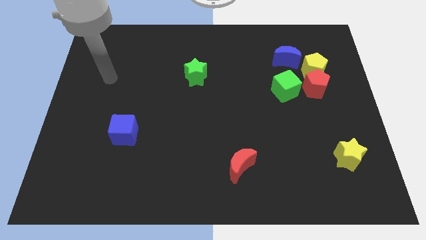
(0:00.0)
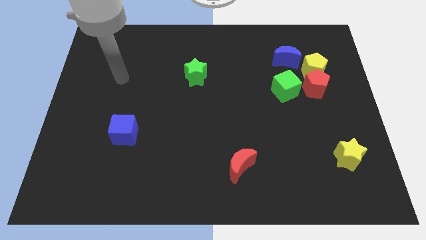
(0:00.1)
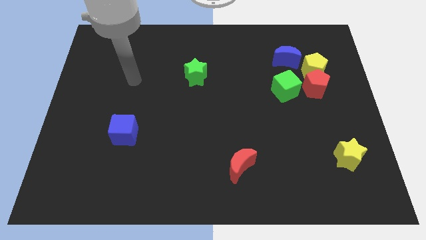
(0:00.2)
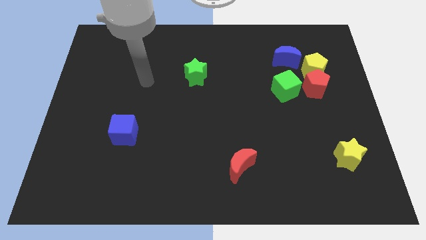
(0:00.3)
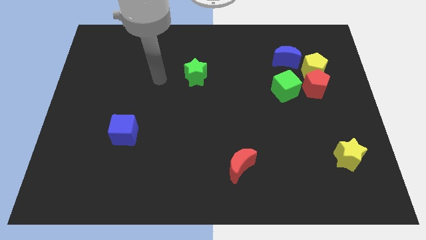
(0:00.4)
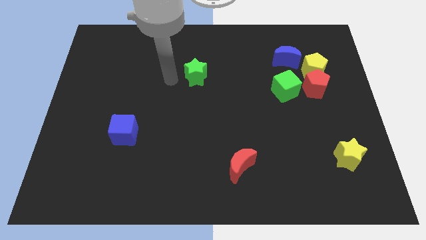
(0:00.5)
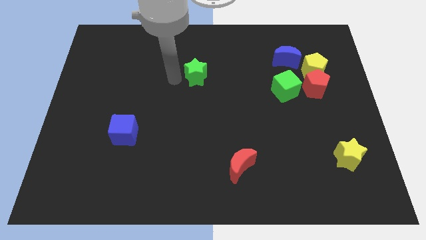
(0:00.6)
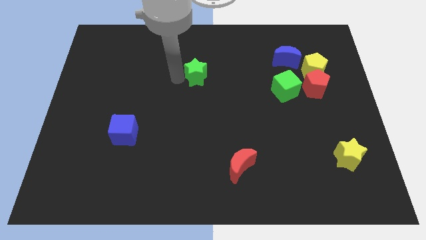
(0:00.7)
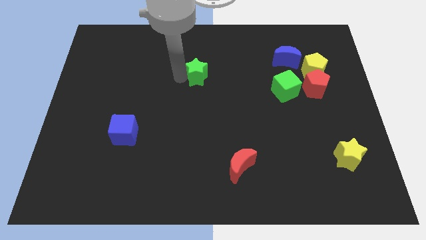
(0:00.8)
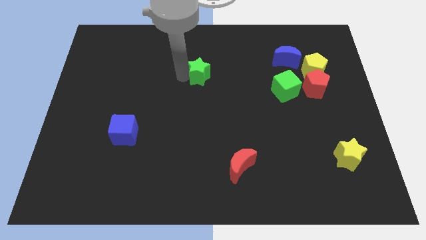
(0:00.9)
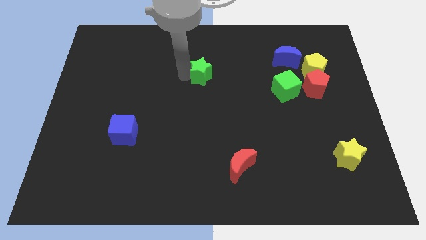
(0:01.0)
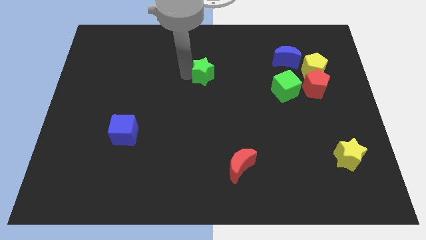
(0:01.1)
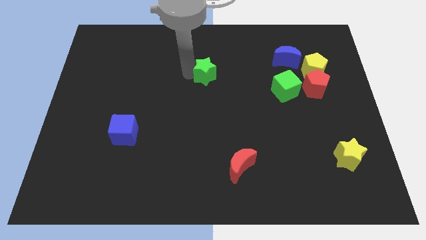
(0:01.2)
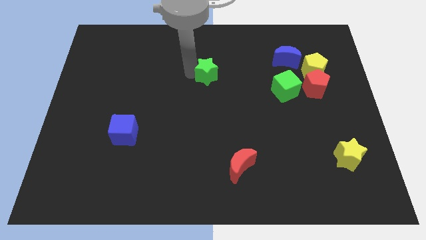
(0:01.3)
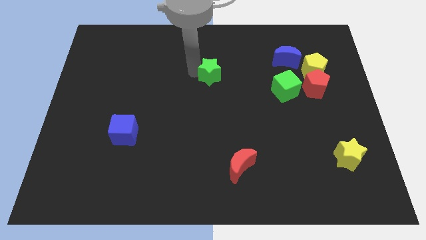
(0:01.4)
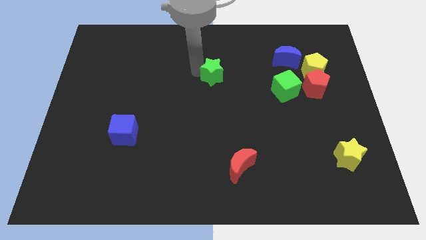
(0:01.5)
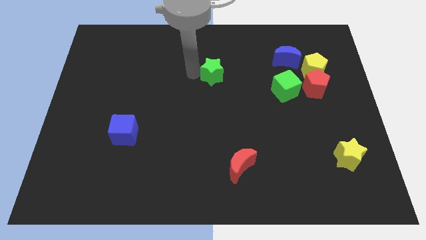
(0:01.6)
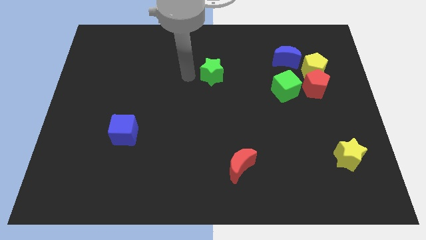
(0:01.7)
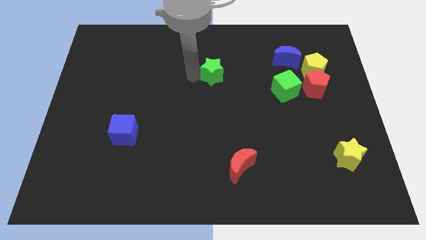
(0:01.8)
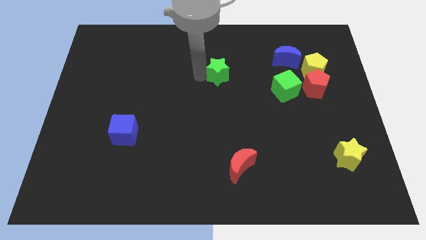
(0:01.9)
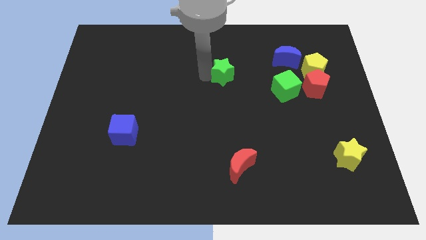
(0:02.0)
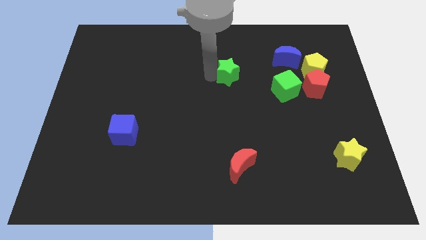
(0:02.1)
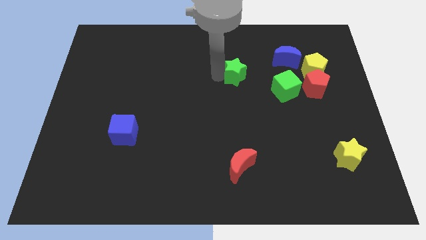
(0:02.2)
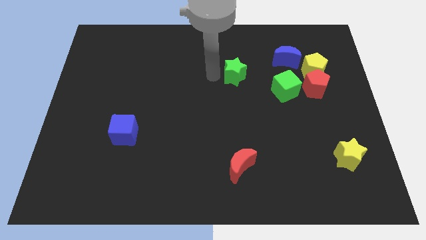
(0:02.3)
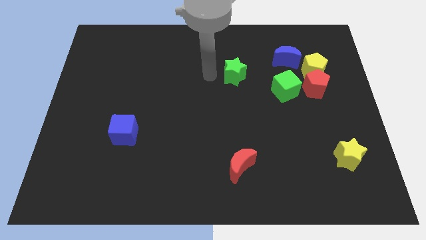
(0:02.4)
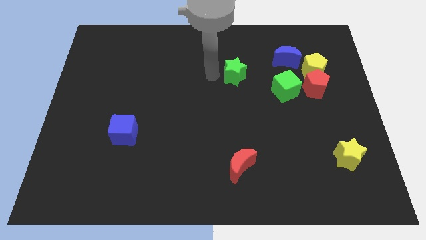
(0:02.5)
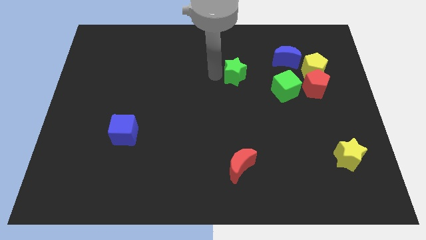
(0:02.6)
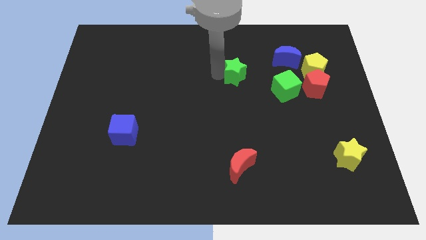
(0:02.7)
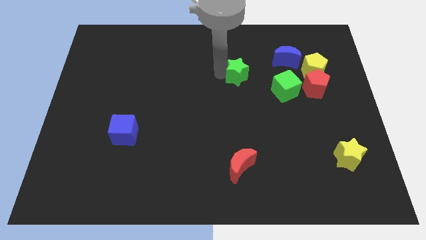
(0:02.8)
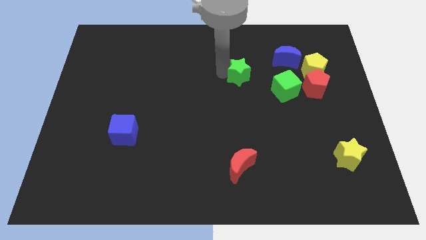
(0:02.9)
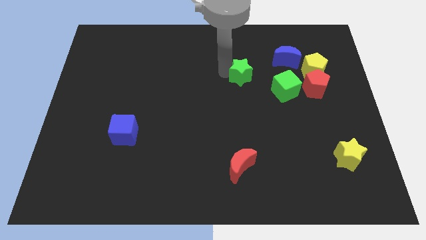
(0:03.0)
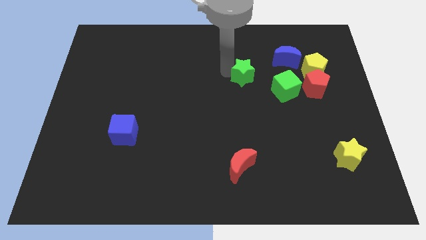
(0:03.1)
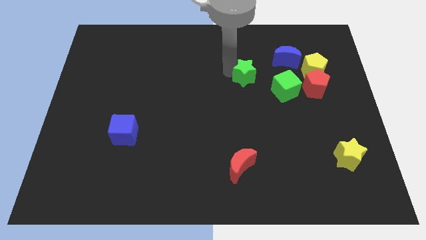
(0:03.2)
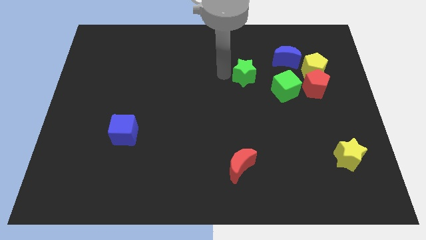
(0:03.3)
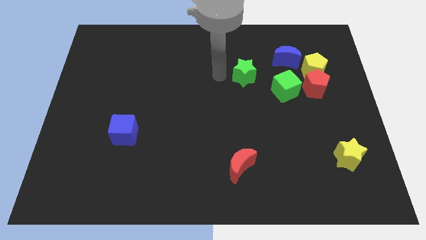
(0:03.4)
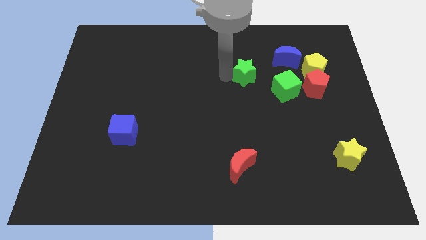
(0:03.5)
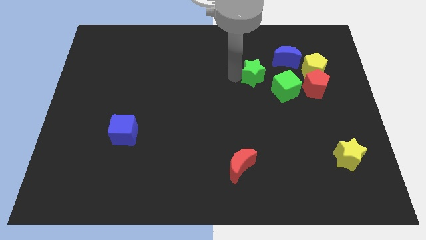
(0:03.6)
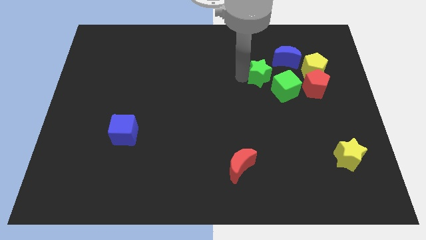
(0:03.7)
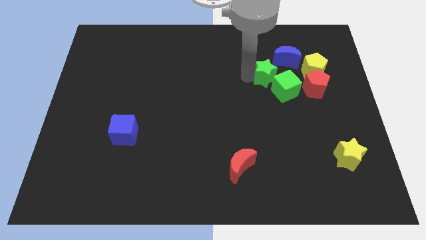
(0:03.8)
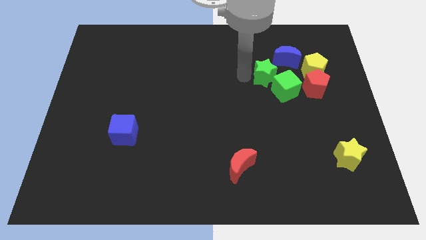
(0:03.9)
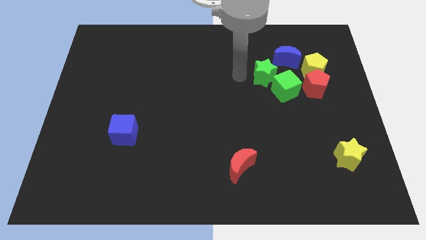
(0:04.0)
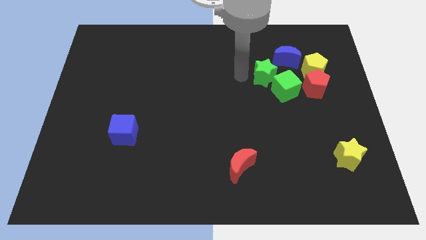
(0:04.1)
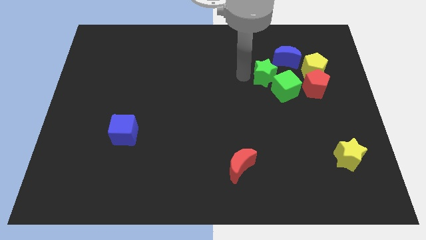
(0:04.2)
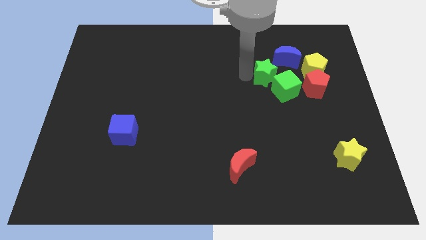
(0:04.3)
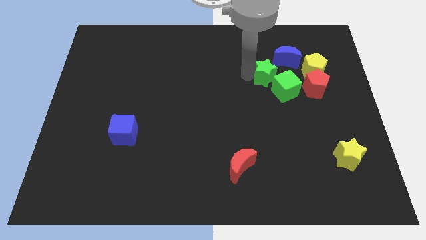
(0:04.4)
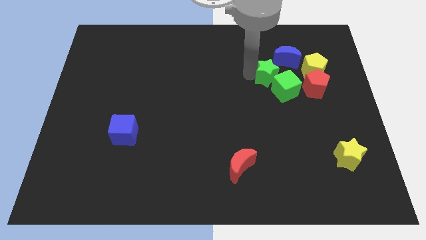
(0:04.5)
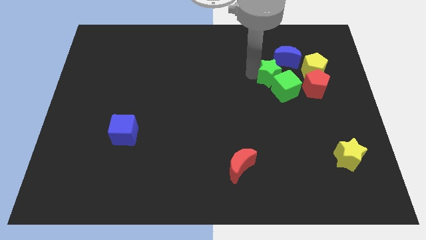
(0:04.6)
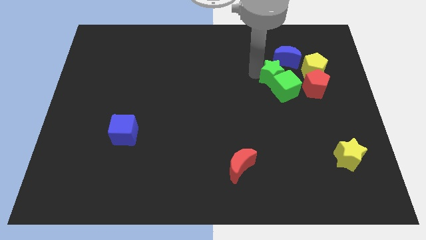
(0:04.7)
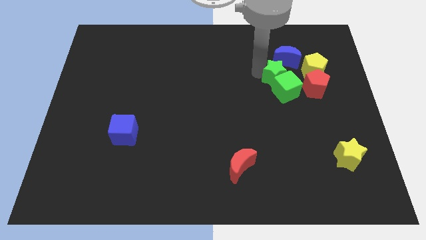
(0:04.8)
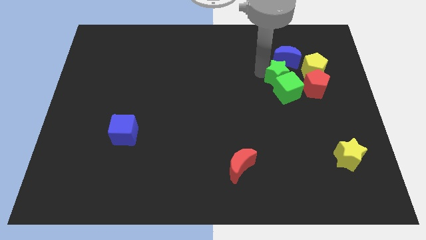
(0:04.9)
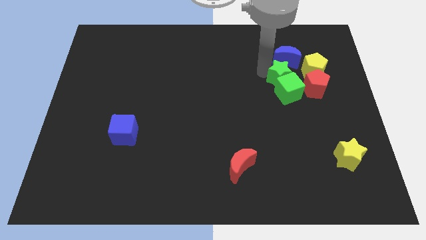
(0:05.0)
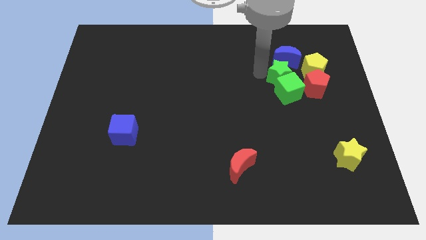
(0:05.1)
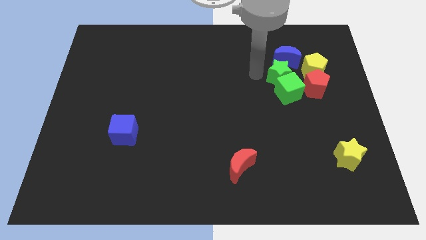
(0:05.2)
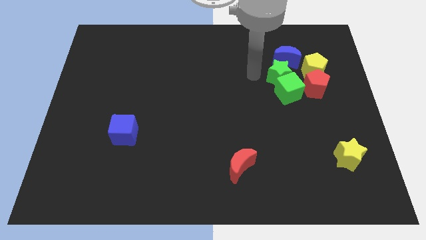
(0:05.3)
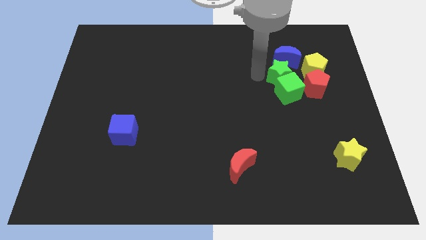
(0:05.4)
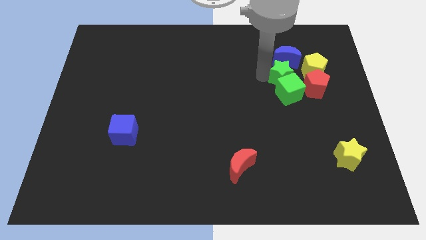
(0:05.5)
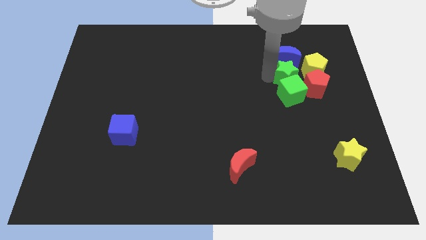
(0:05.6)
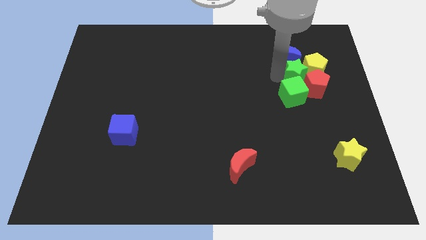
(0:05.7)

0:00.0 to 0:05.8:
move the green star close to the red pentagon

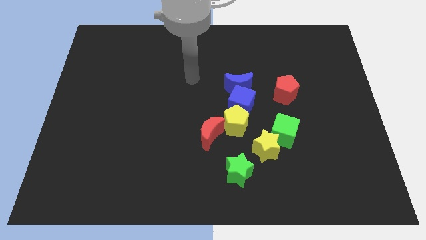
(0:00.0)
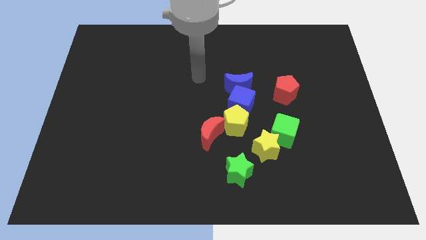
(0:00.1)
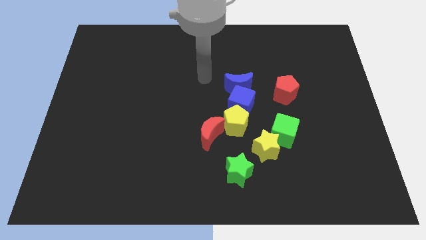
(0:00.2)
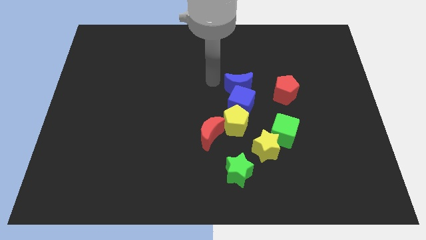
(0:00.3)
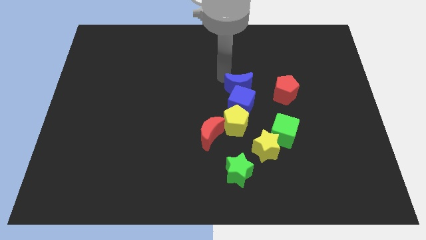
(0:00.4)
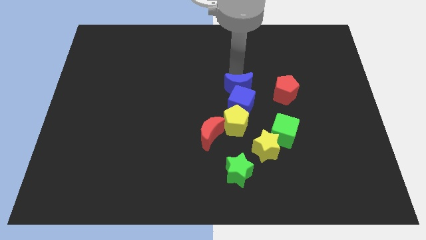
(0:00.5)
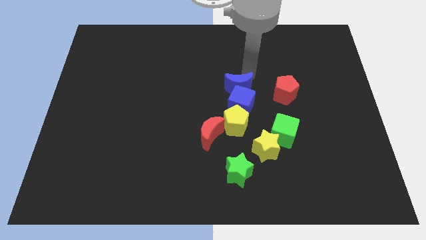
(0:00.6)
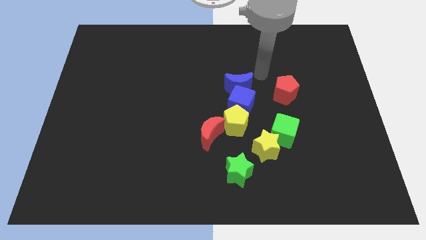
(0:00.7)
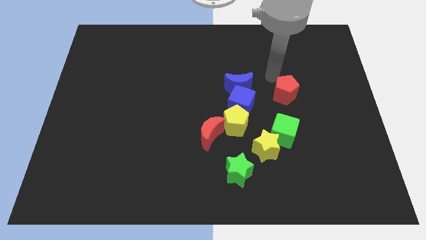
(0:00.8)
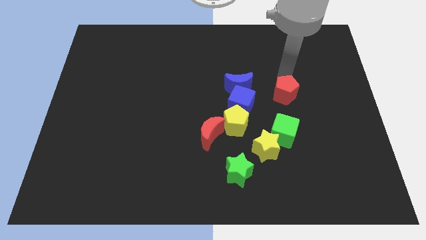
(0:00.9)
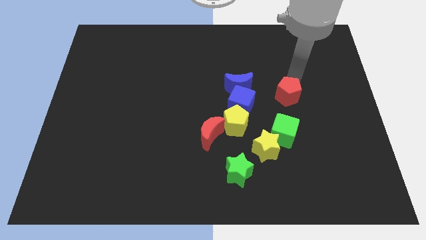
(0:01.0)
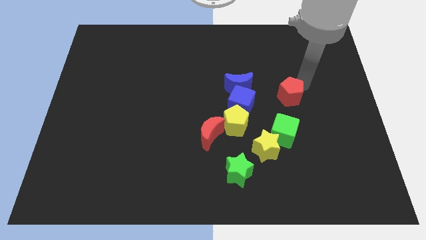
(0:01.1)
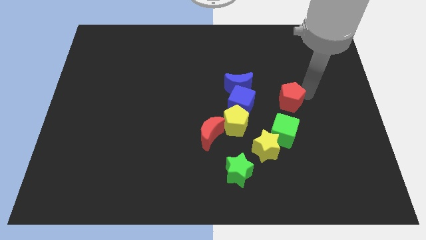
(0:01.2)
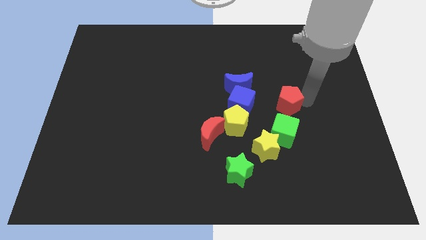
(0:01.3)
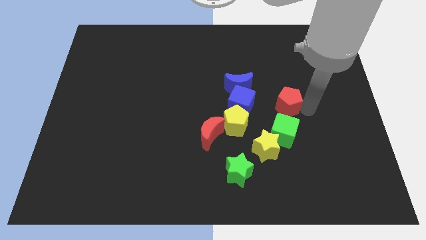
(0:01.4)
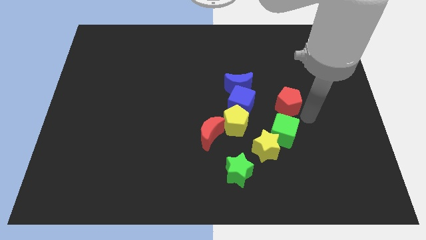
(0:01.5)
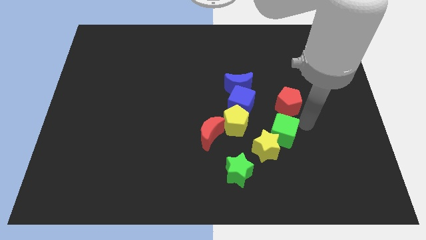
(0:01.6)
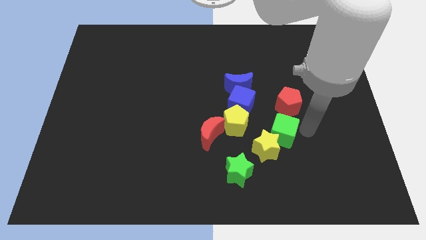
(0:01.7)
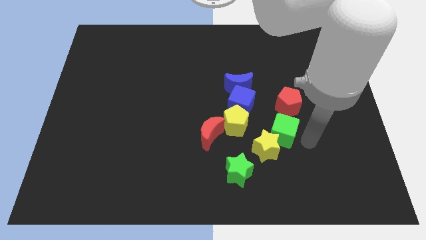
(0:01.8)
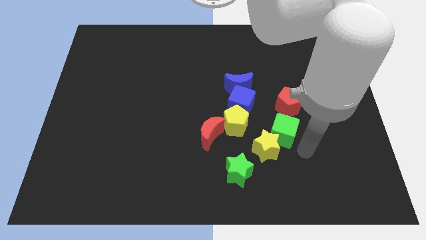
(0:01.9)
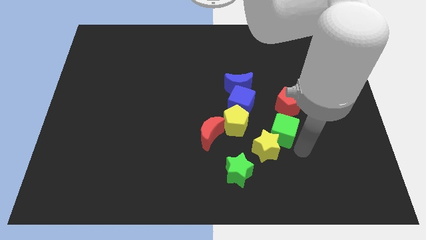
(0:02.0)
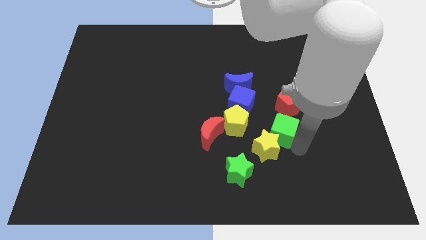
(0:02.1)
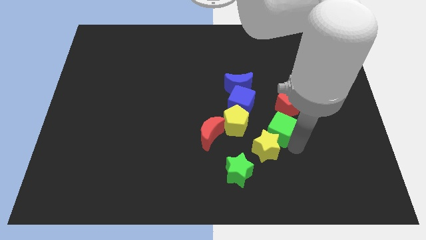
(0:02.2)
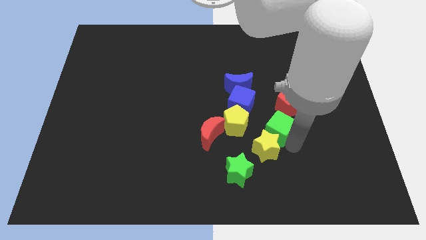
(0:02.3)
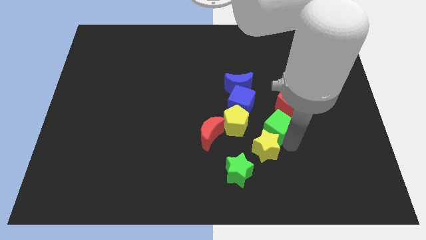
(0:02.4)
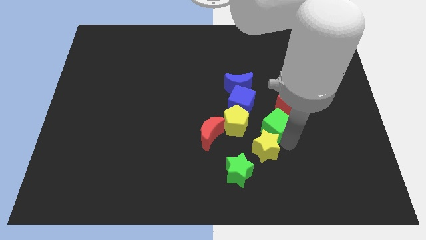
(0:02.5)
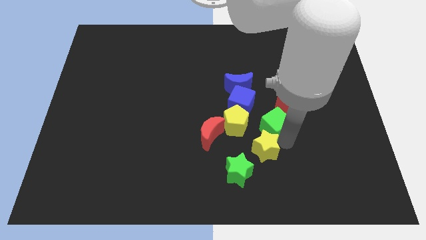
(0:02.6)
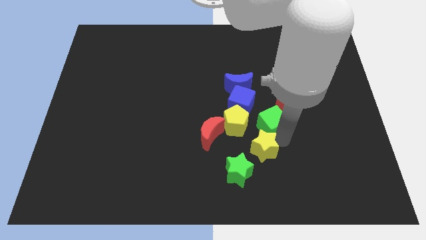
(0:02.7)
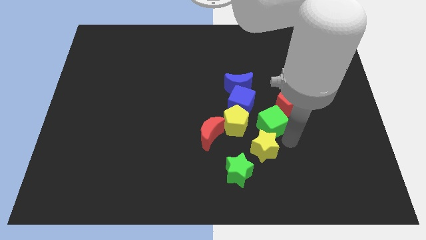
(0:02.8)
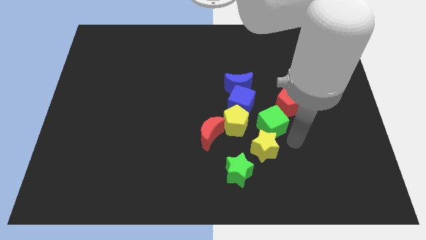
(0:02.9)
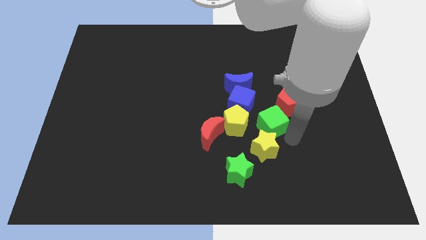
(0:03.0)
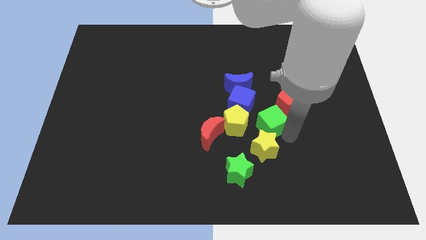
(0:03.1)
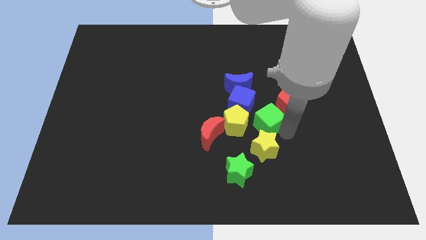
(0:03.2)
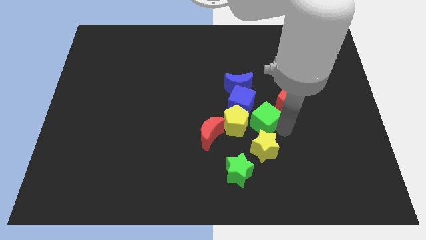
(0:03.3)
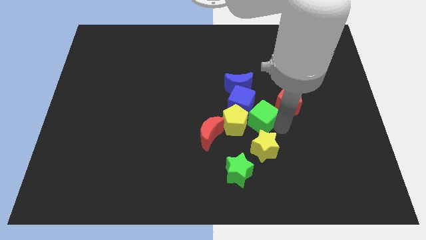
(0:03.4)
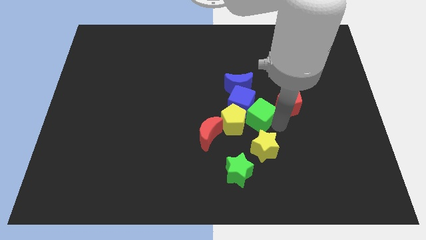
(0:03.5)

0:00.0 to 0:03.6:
move the green cube close to the blue cube
